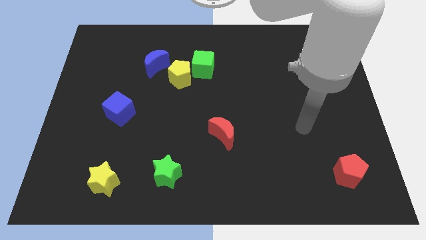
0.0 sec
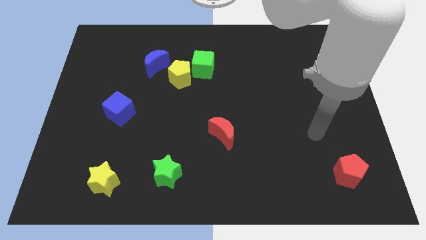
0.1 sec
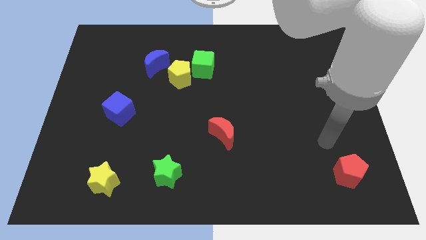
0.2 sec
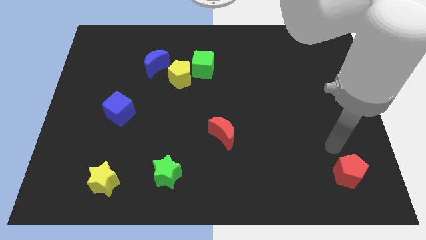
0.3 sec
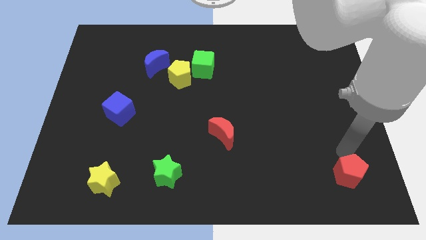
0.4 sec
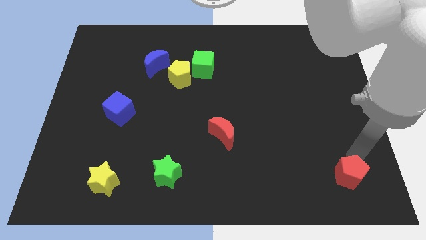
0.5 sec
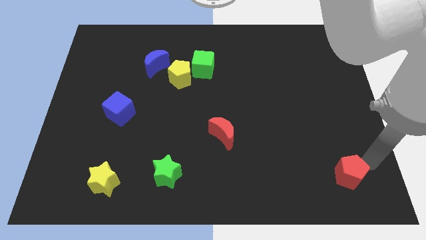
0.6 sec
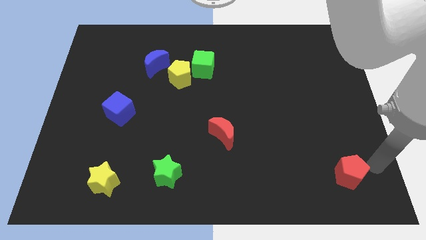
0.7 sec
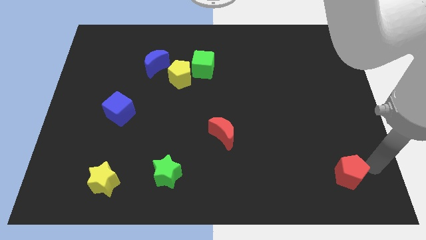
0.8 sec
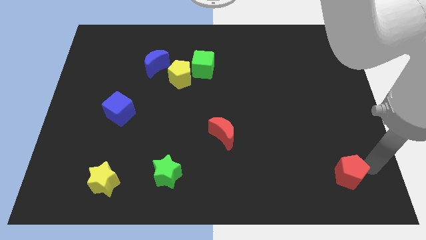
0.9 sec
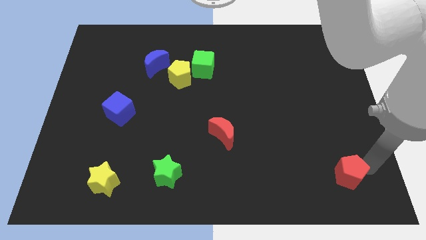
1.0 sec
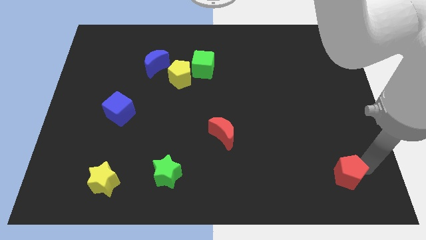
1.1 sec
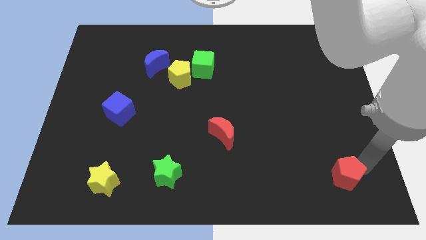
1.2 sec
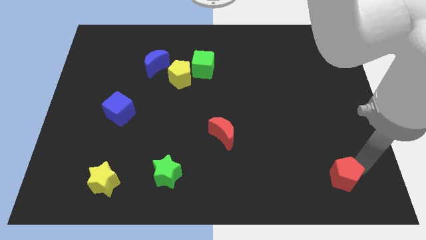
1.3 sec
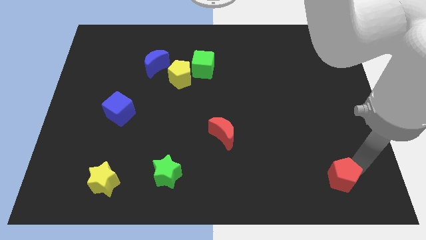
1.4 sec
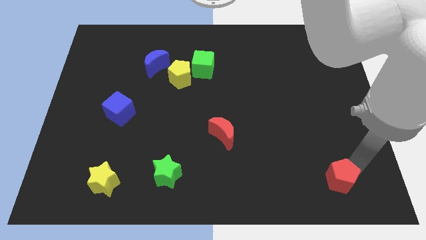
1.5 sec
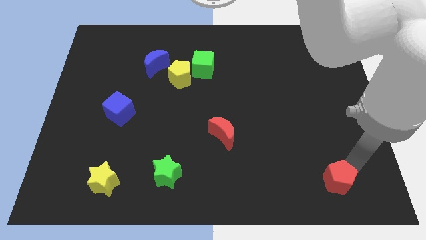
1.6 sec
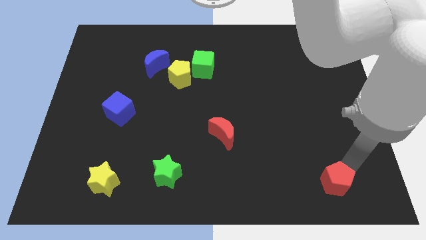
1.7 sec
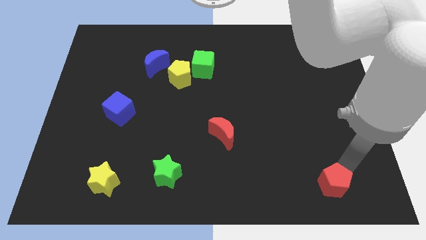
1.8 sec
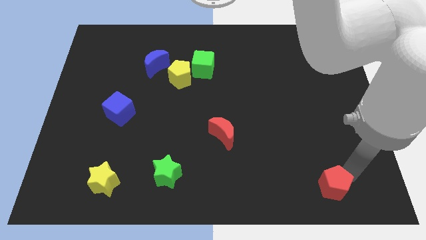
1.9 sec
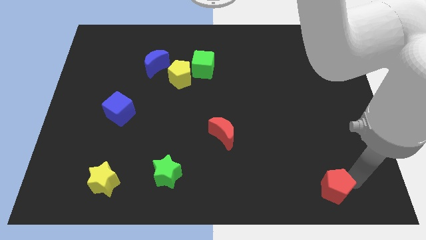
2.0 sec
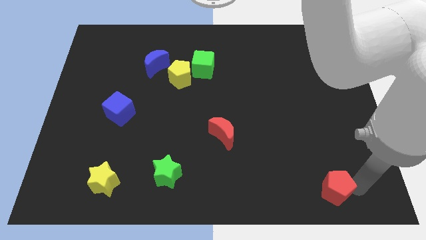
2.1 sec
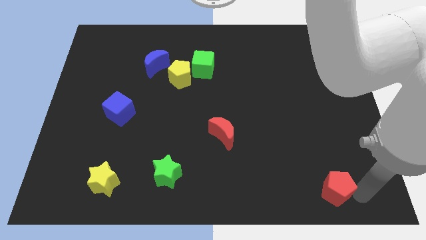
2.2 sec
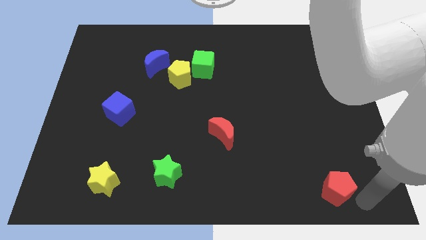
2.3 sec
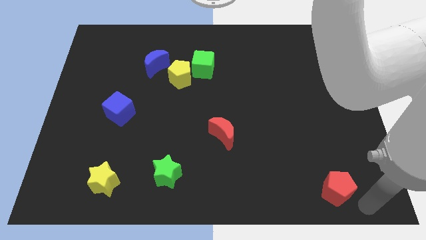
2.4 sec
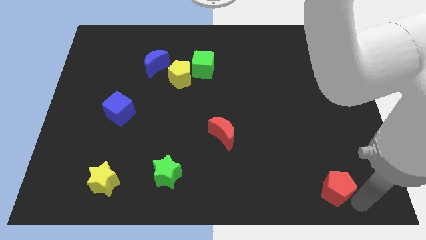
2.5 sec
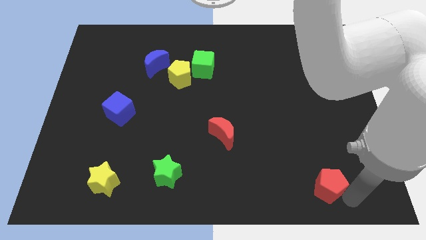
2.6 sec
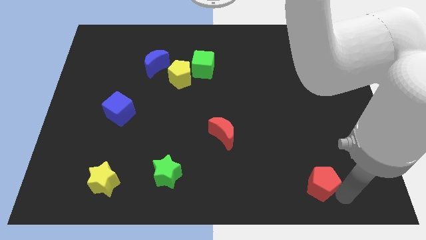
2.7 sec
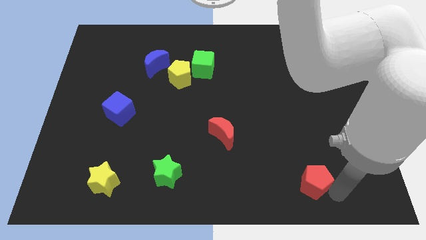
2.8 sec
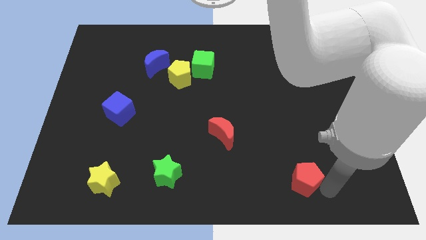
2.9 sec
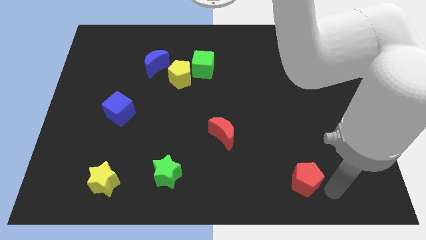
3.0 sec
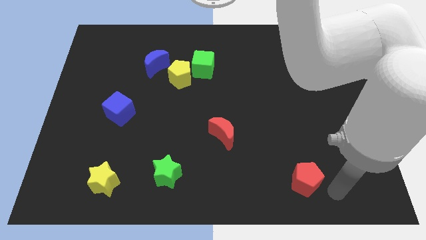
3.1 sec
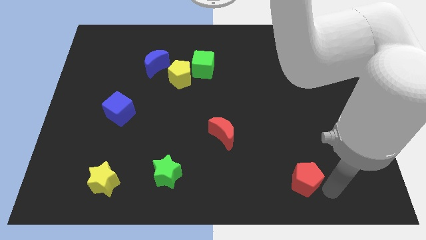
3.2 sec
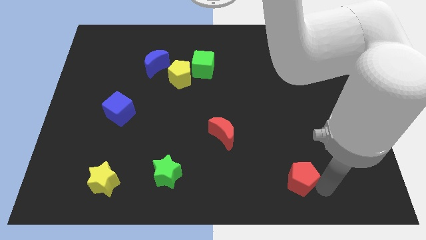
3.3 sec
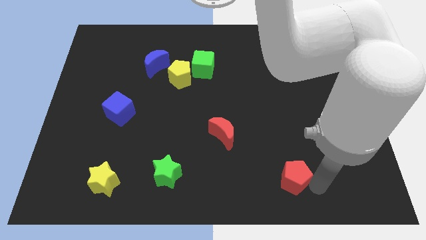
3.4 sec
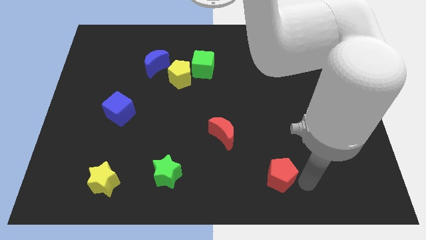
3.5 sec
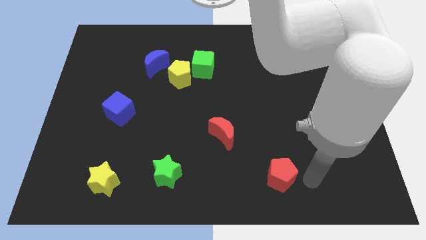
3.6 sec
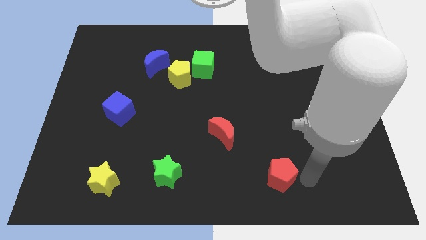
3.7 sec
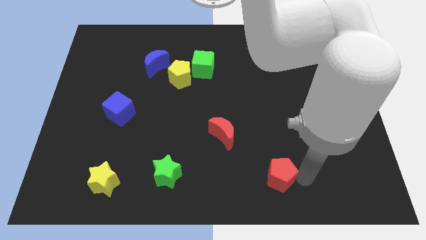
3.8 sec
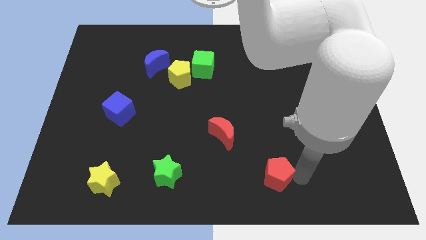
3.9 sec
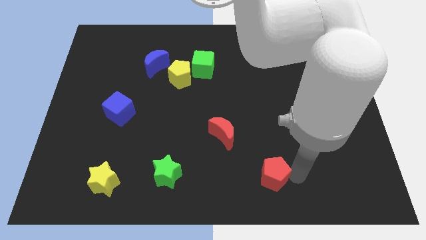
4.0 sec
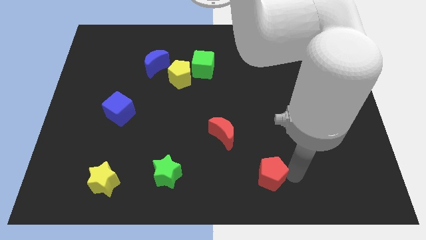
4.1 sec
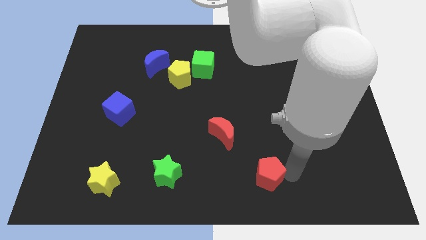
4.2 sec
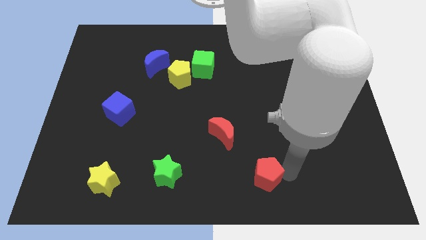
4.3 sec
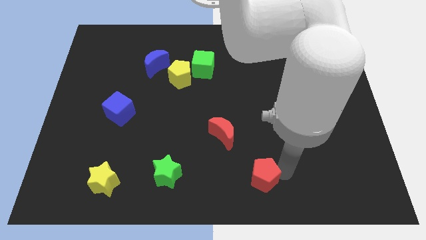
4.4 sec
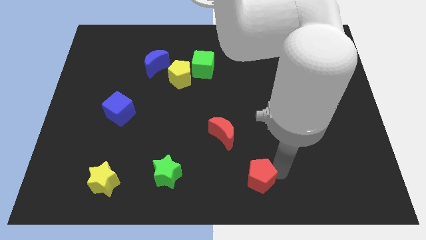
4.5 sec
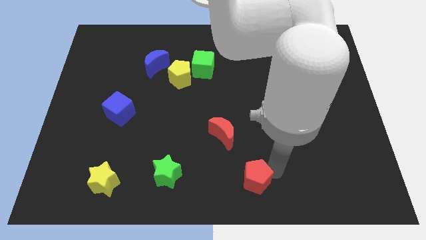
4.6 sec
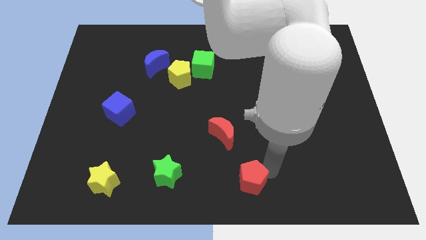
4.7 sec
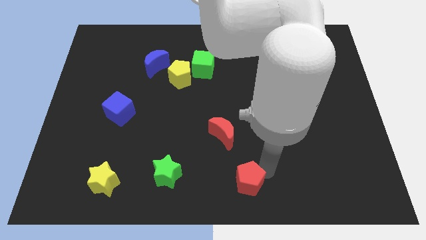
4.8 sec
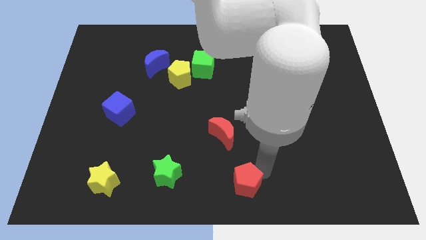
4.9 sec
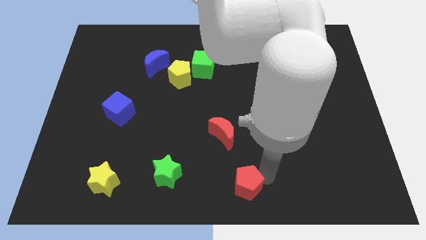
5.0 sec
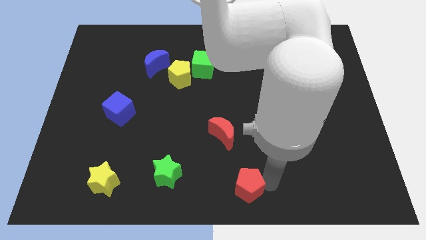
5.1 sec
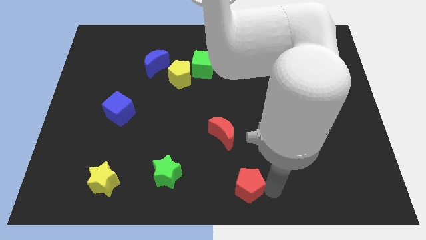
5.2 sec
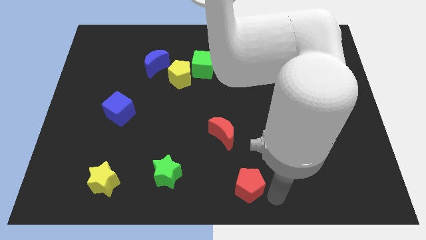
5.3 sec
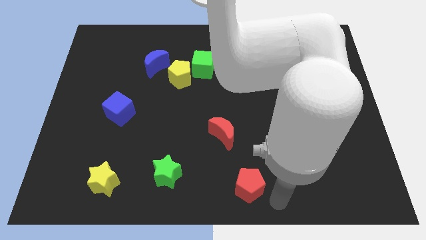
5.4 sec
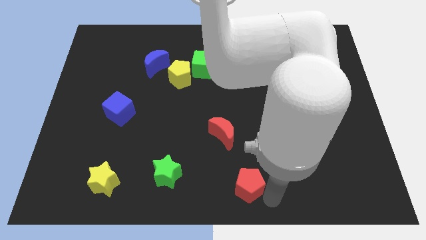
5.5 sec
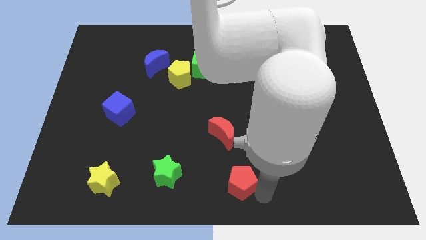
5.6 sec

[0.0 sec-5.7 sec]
put the red pentagon to the right side of the green star

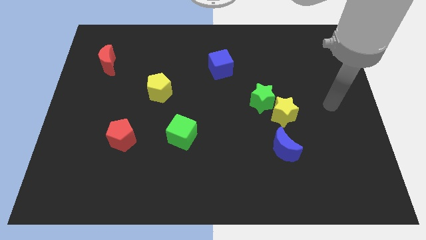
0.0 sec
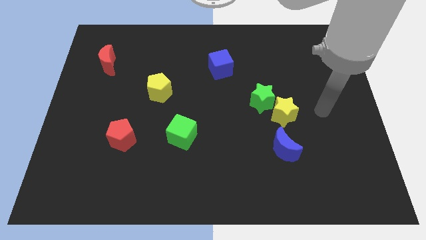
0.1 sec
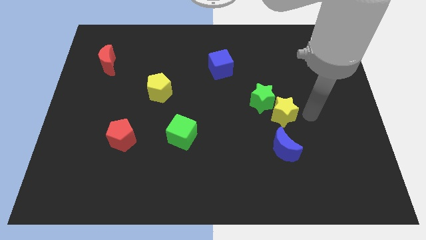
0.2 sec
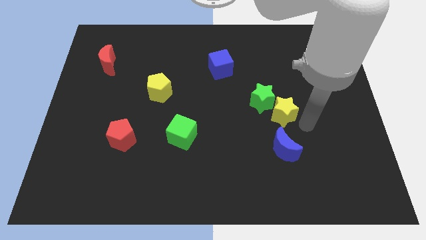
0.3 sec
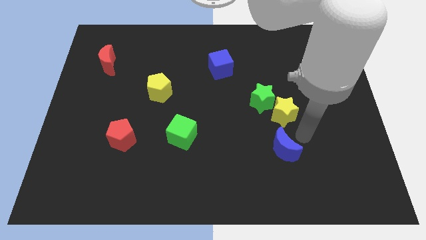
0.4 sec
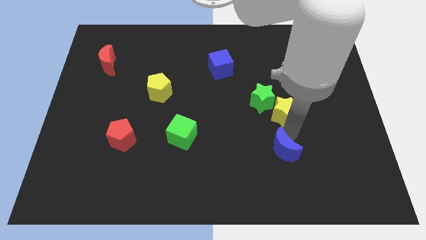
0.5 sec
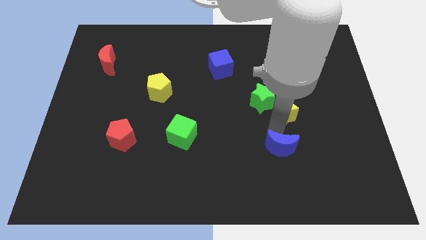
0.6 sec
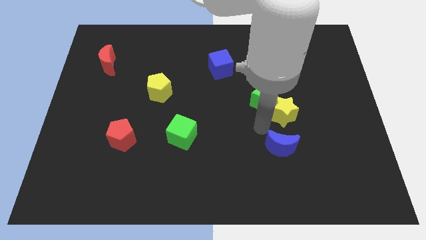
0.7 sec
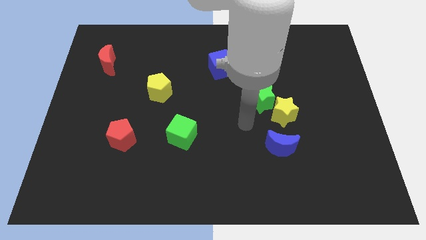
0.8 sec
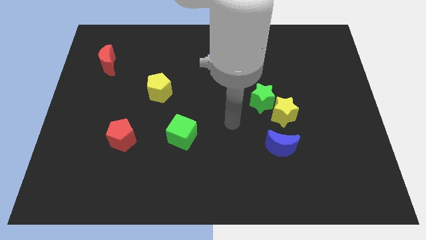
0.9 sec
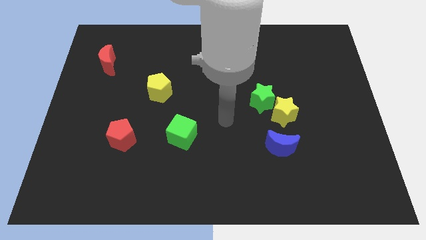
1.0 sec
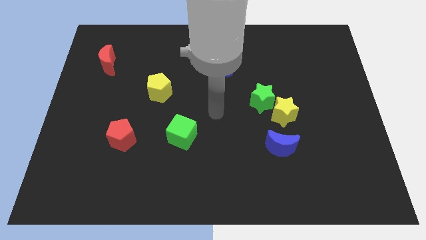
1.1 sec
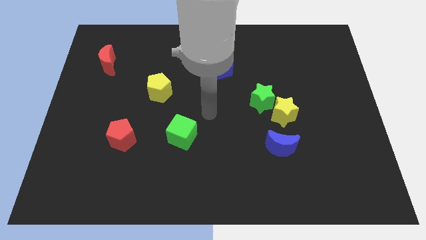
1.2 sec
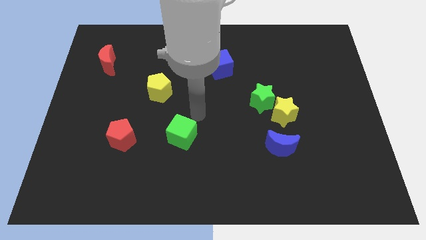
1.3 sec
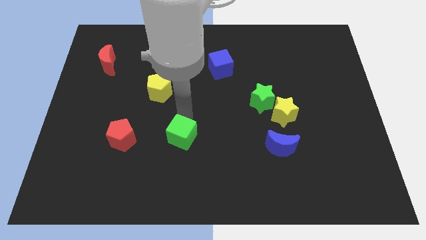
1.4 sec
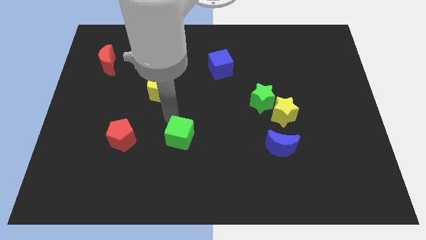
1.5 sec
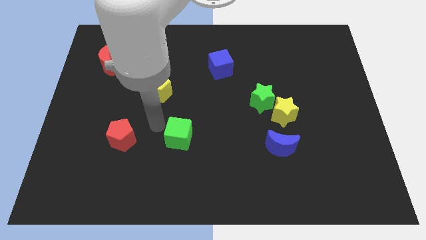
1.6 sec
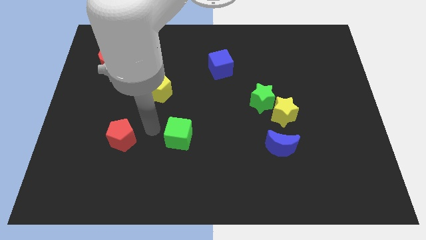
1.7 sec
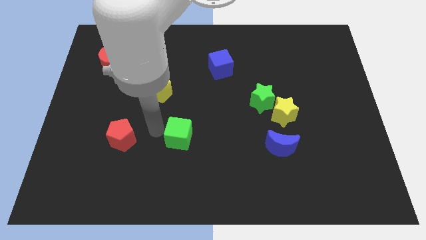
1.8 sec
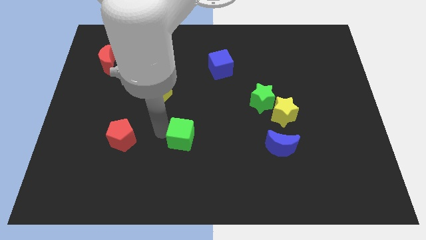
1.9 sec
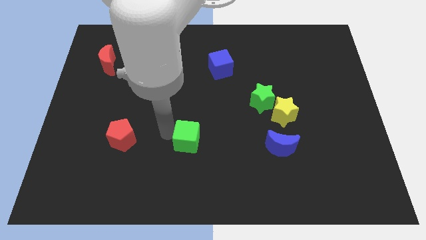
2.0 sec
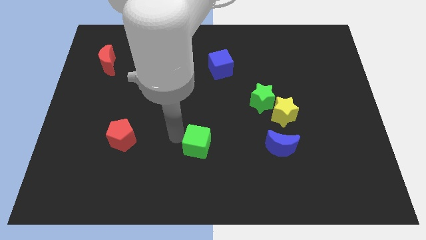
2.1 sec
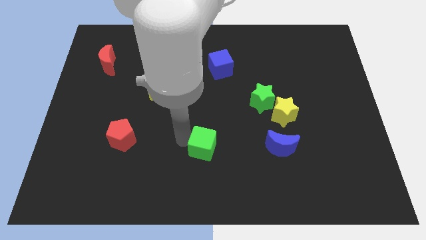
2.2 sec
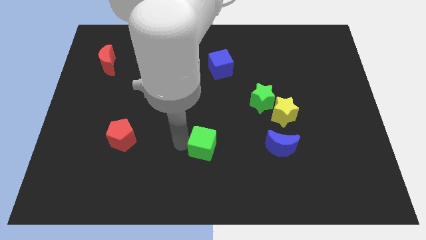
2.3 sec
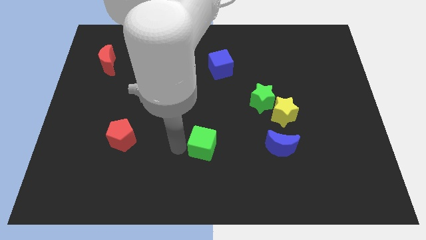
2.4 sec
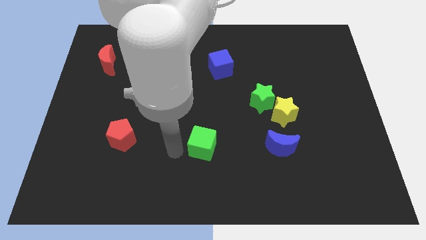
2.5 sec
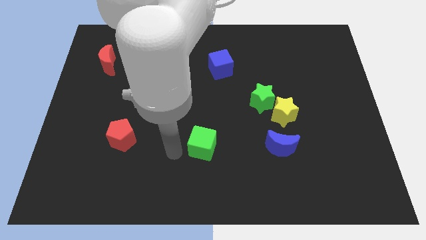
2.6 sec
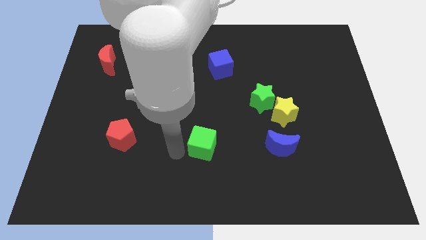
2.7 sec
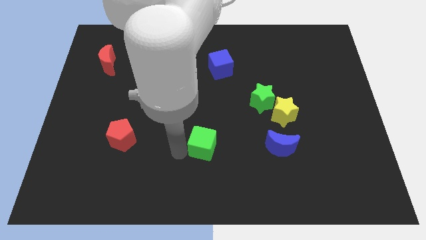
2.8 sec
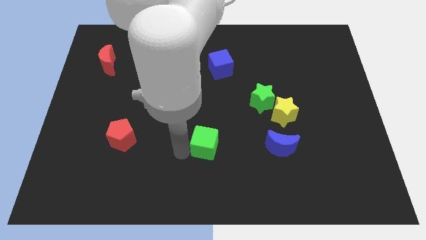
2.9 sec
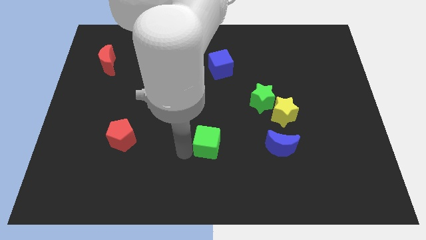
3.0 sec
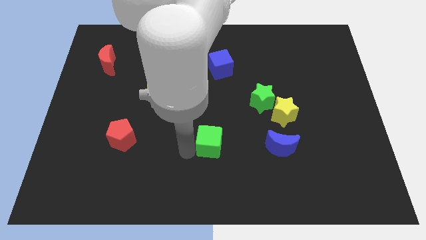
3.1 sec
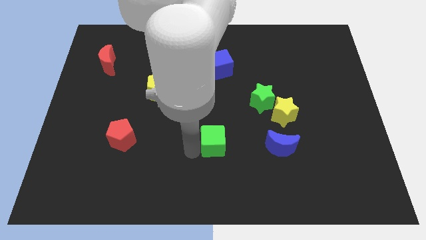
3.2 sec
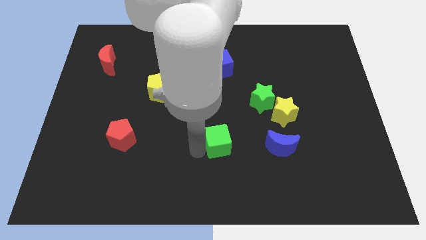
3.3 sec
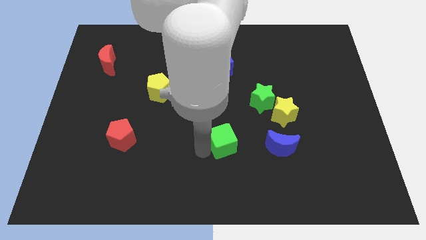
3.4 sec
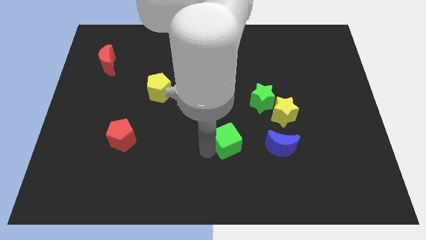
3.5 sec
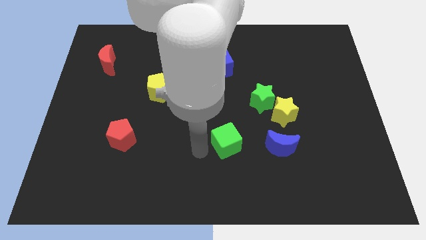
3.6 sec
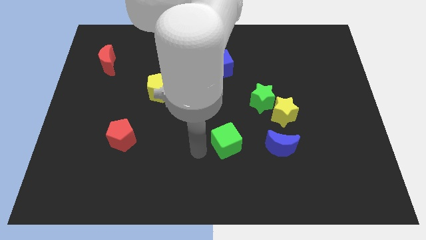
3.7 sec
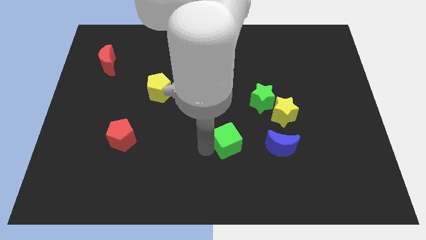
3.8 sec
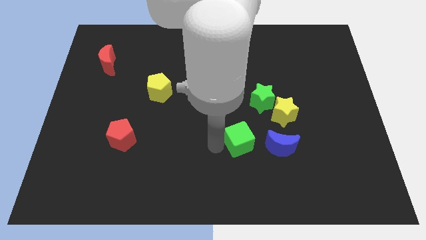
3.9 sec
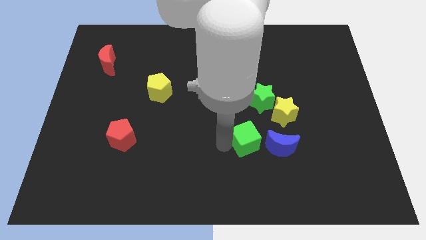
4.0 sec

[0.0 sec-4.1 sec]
slide the green cube to the bottom left side of the yellow star
